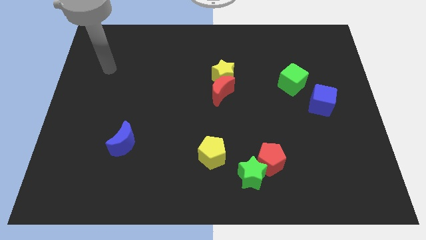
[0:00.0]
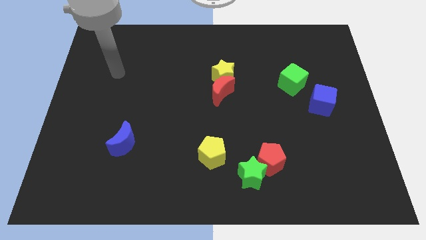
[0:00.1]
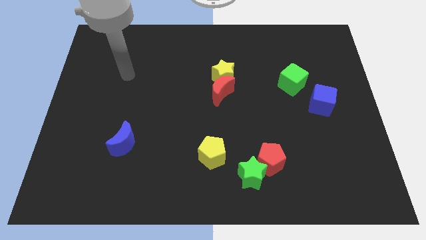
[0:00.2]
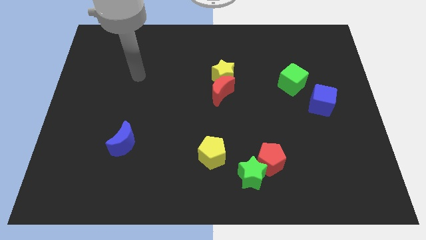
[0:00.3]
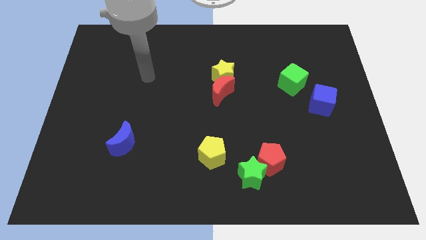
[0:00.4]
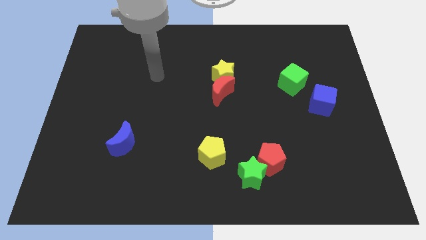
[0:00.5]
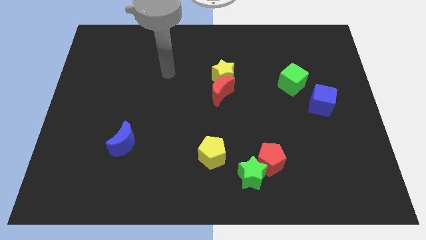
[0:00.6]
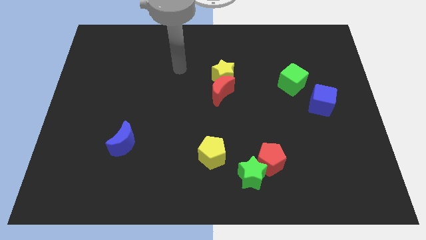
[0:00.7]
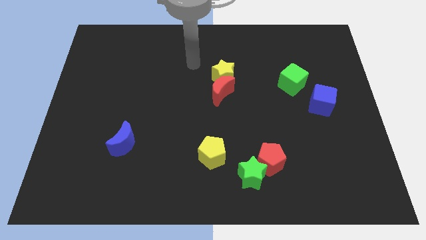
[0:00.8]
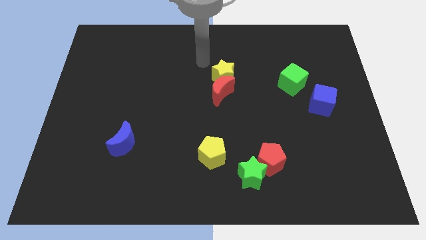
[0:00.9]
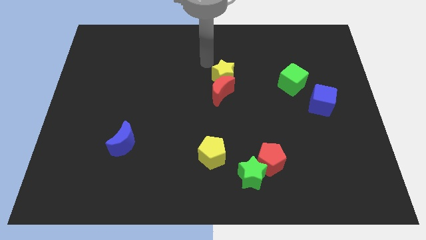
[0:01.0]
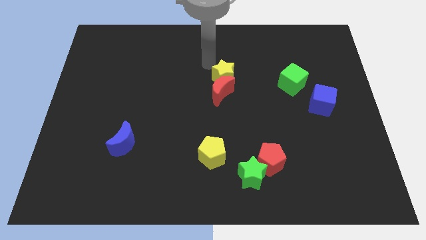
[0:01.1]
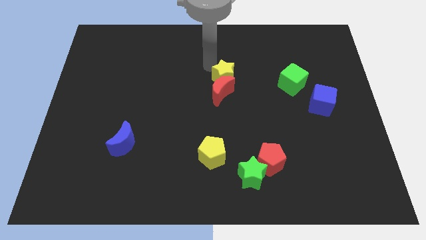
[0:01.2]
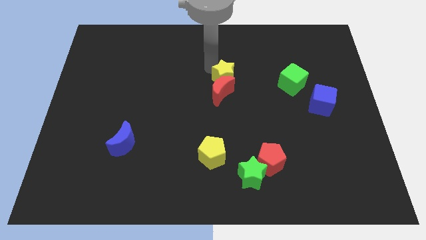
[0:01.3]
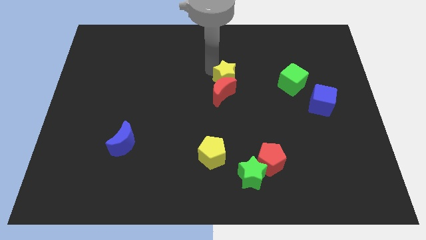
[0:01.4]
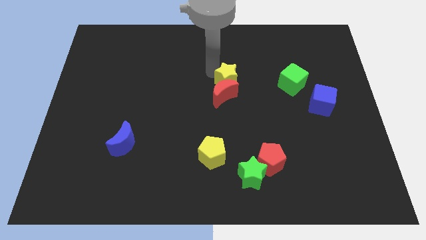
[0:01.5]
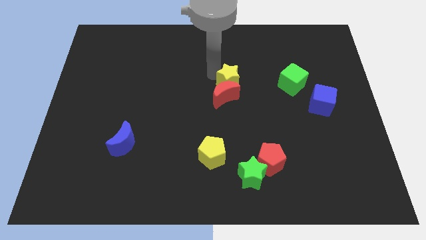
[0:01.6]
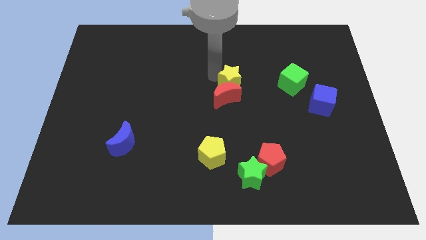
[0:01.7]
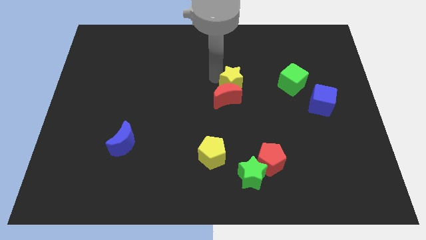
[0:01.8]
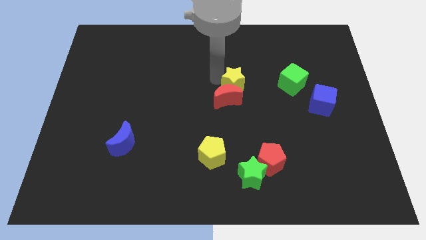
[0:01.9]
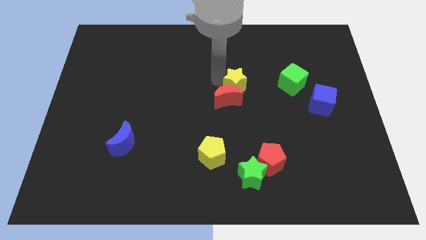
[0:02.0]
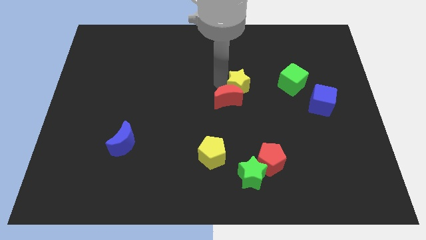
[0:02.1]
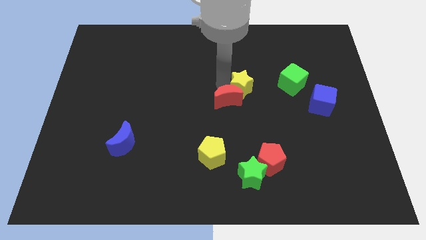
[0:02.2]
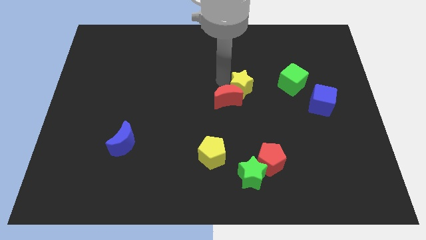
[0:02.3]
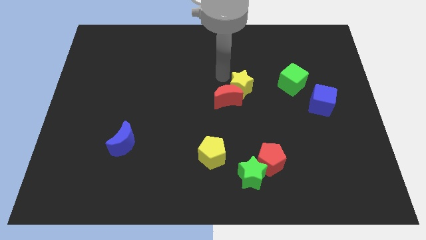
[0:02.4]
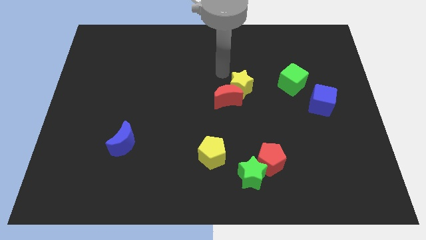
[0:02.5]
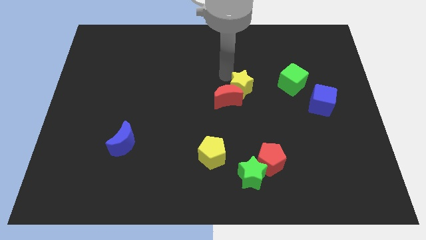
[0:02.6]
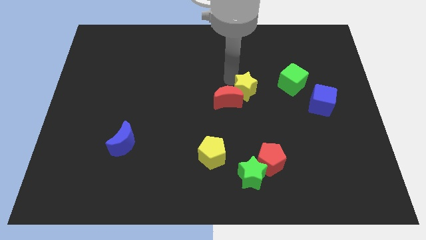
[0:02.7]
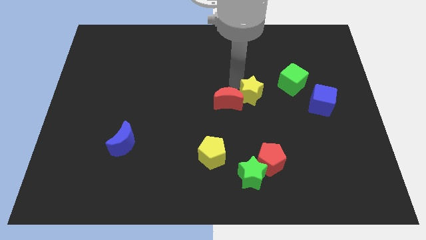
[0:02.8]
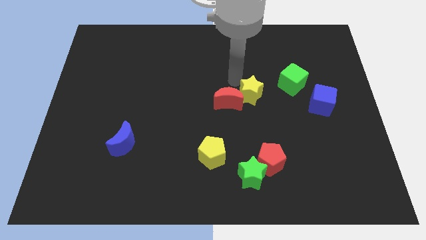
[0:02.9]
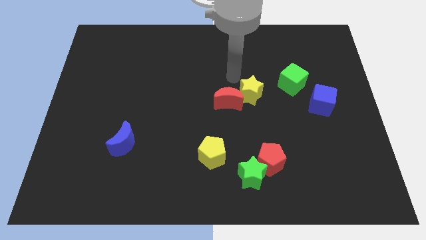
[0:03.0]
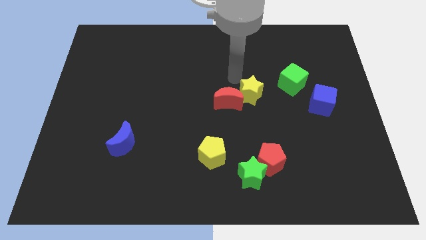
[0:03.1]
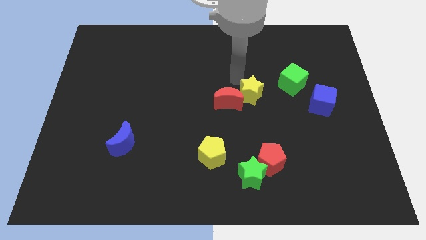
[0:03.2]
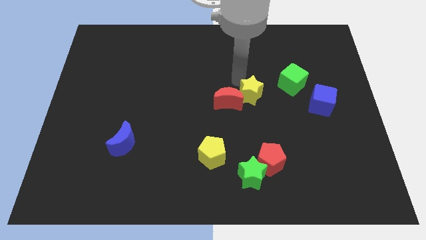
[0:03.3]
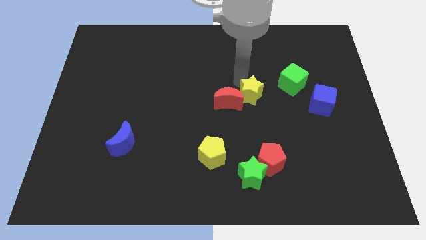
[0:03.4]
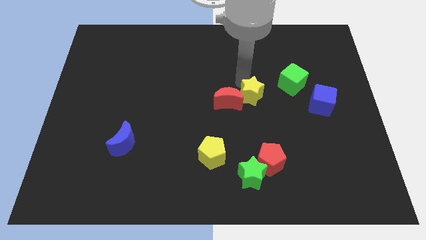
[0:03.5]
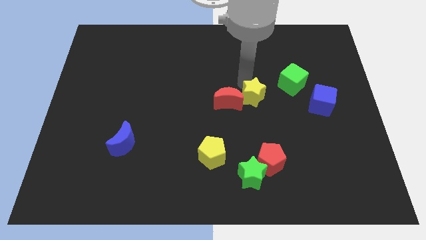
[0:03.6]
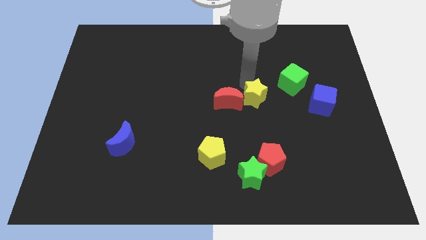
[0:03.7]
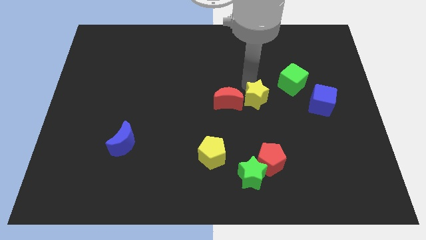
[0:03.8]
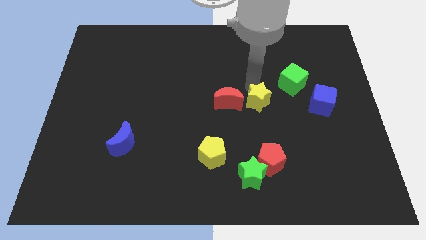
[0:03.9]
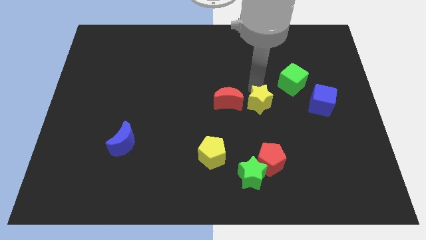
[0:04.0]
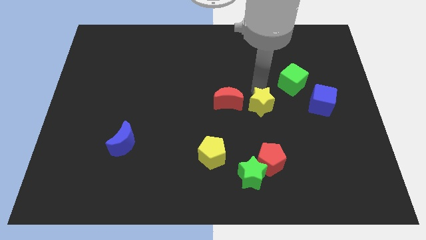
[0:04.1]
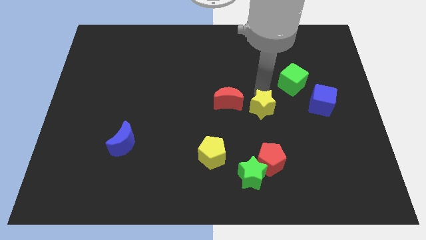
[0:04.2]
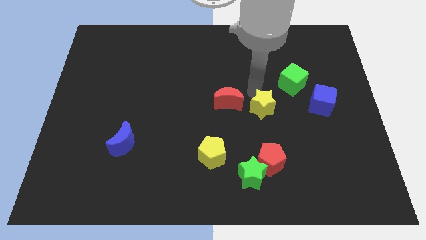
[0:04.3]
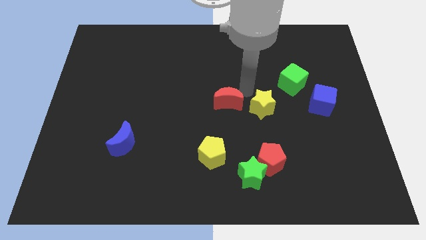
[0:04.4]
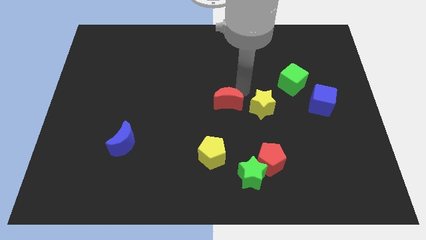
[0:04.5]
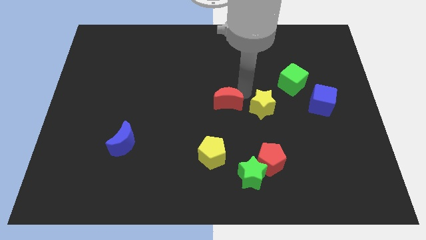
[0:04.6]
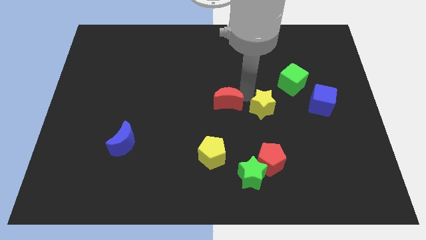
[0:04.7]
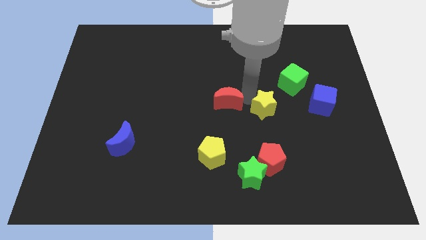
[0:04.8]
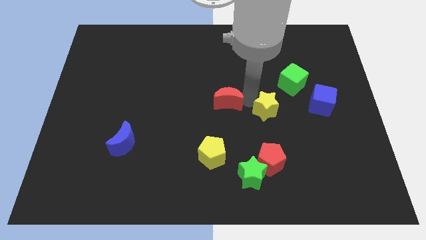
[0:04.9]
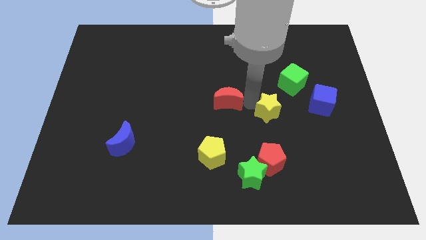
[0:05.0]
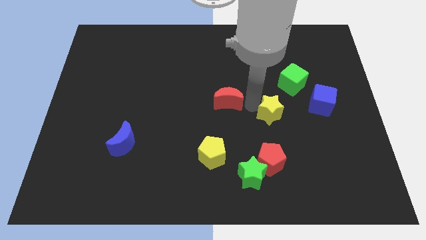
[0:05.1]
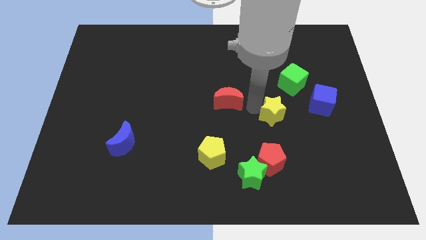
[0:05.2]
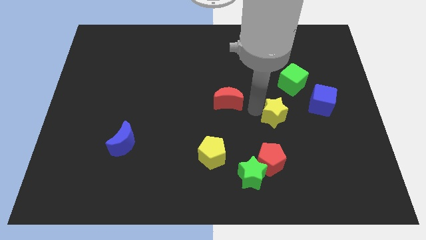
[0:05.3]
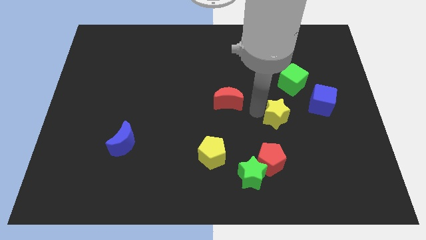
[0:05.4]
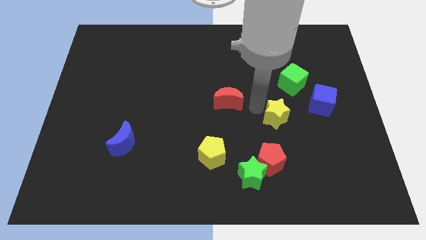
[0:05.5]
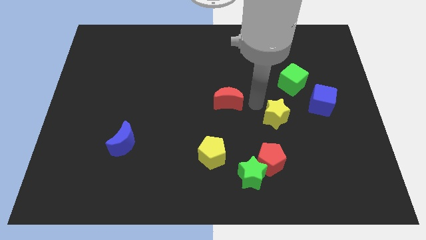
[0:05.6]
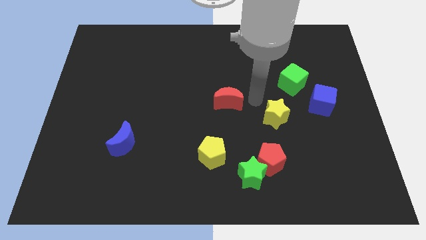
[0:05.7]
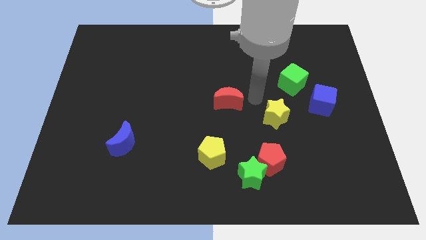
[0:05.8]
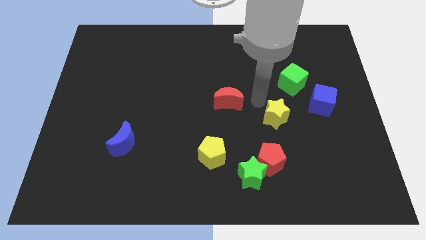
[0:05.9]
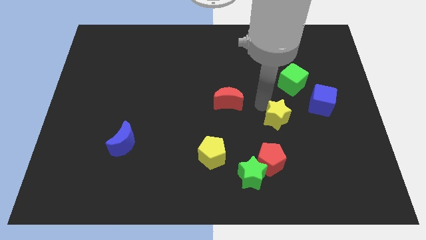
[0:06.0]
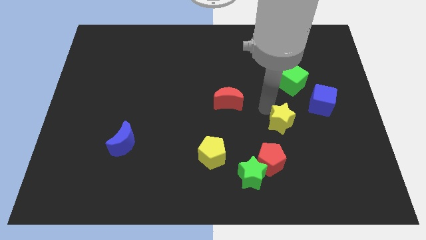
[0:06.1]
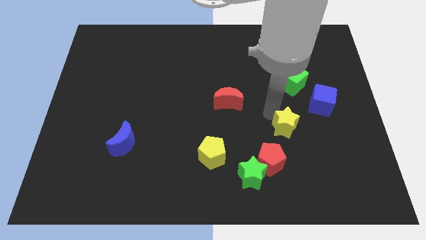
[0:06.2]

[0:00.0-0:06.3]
slide the yellow star down and then to the right

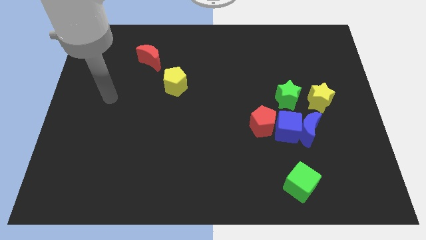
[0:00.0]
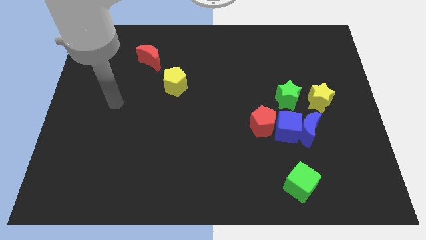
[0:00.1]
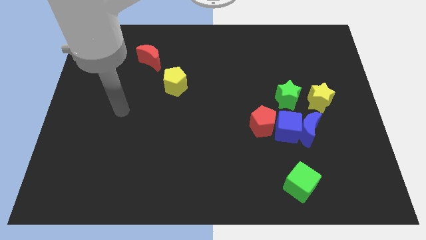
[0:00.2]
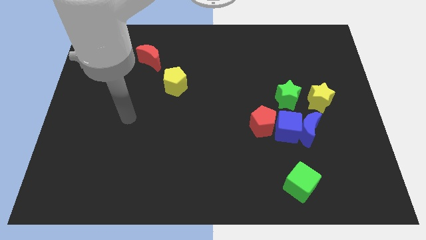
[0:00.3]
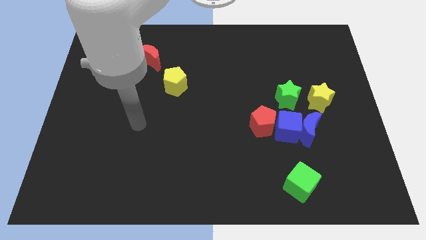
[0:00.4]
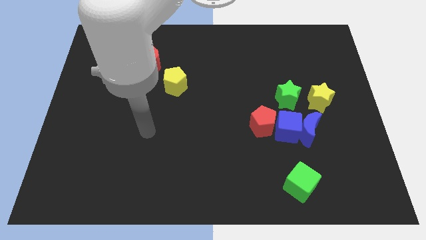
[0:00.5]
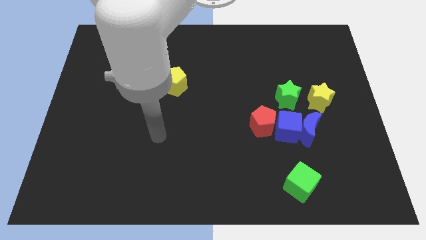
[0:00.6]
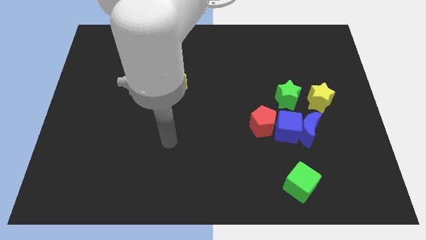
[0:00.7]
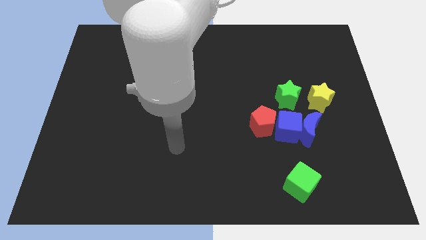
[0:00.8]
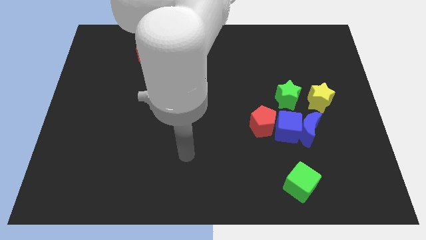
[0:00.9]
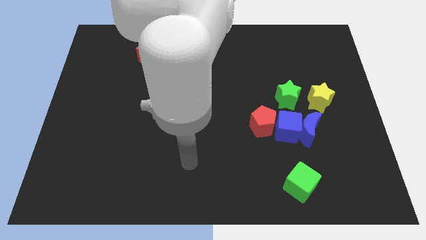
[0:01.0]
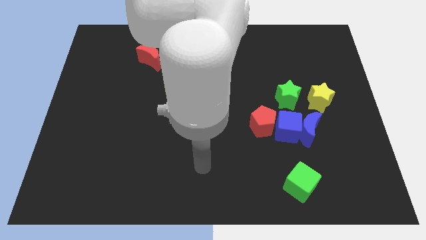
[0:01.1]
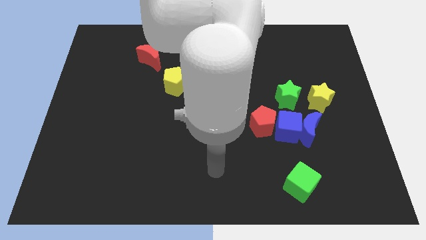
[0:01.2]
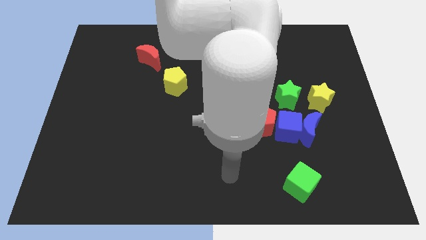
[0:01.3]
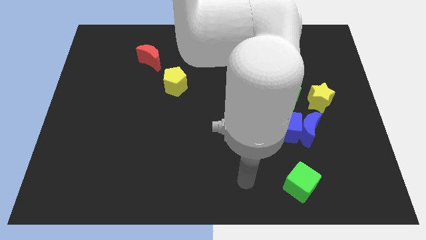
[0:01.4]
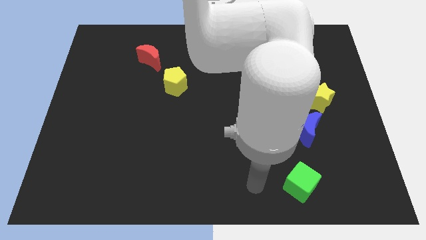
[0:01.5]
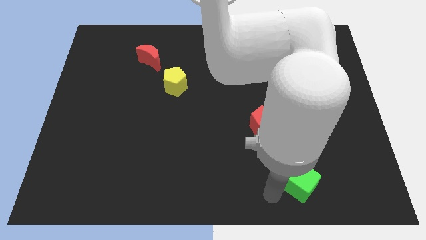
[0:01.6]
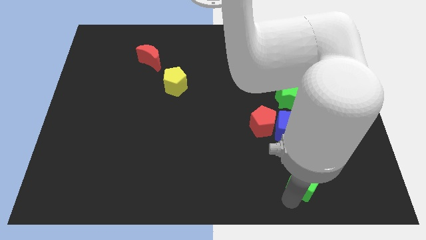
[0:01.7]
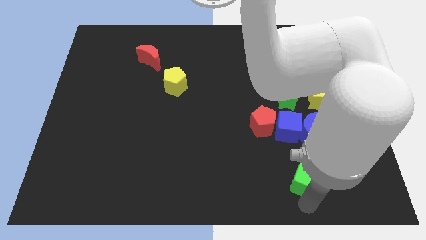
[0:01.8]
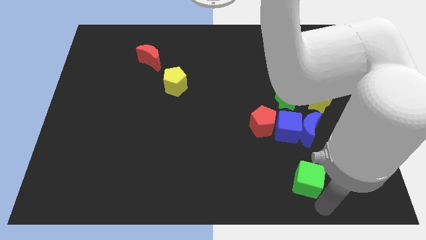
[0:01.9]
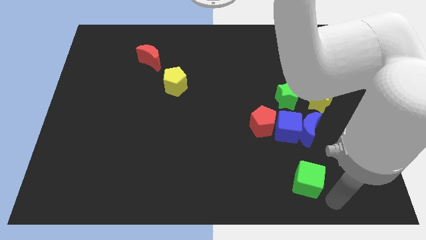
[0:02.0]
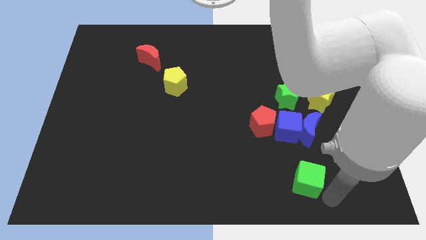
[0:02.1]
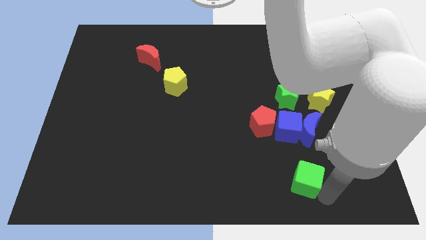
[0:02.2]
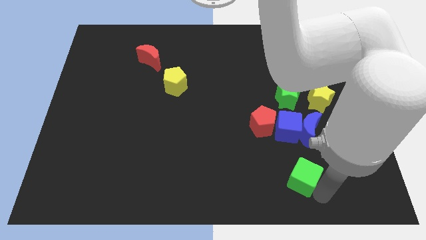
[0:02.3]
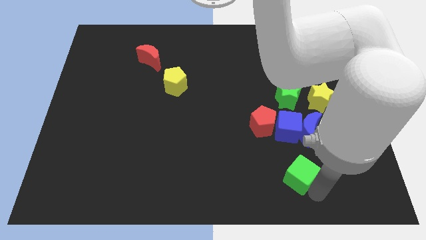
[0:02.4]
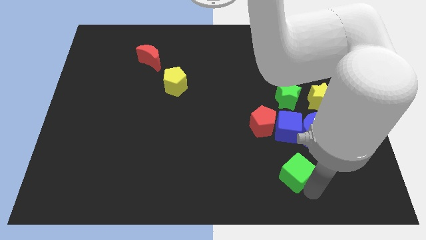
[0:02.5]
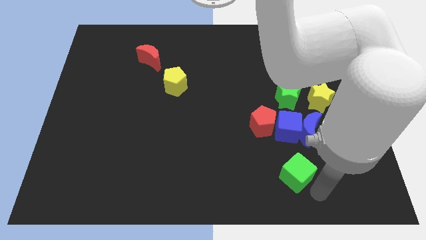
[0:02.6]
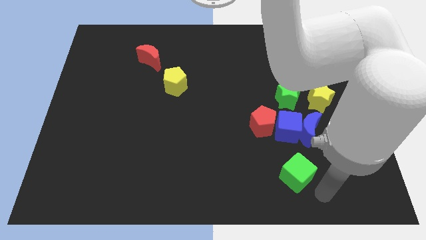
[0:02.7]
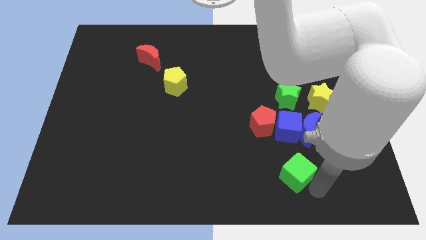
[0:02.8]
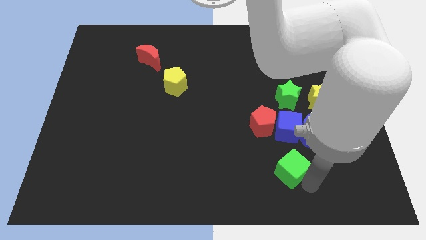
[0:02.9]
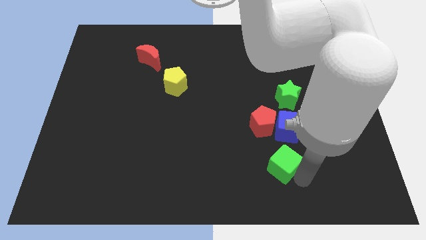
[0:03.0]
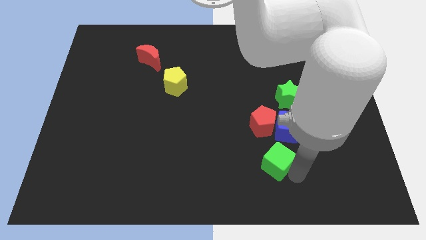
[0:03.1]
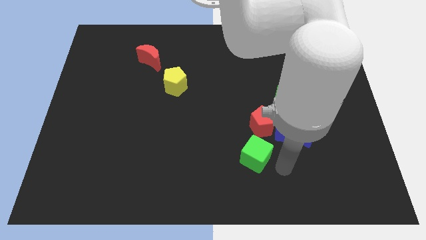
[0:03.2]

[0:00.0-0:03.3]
slide the green cube a bit up and left
